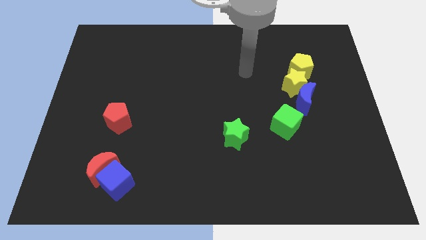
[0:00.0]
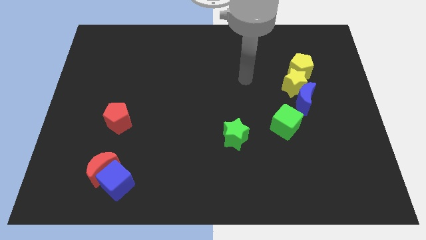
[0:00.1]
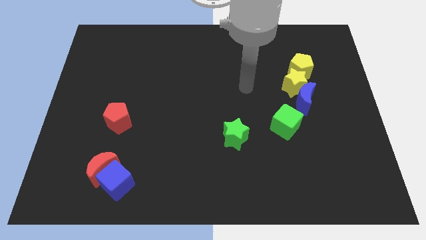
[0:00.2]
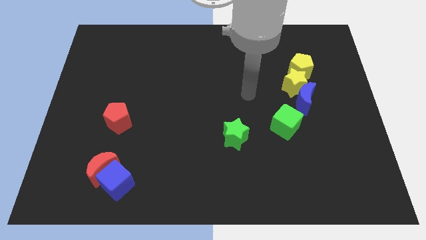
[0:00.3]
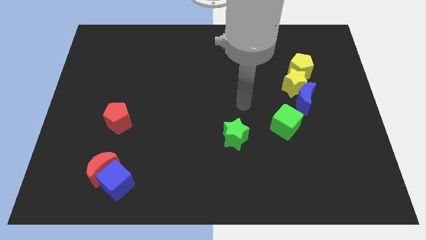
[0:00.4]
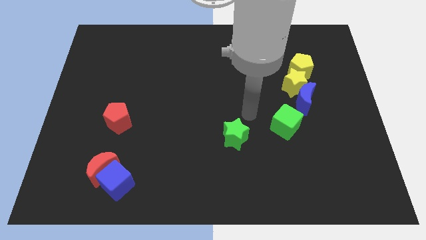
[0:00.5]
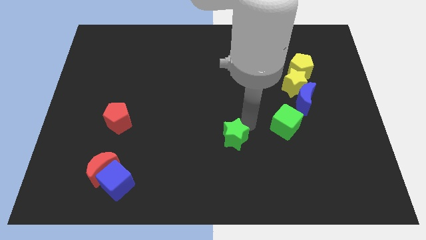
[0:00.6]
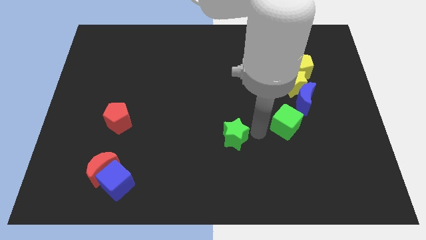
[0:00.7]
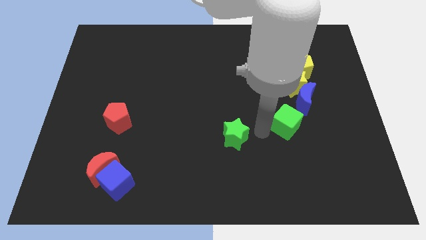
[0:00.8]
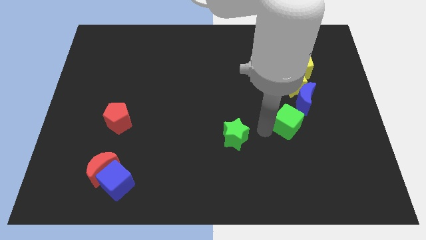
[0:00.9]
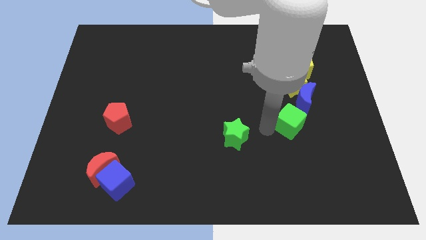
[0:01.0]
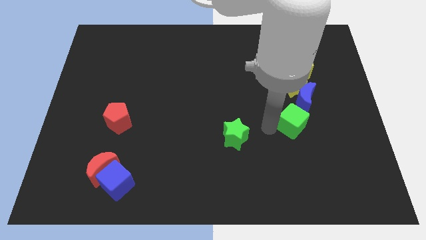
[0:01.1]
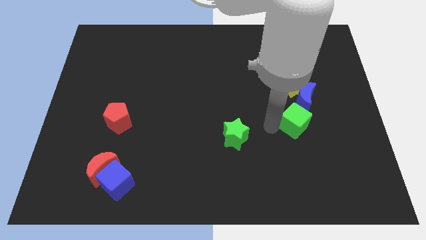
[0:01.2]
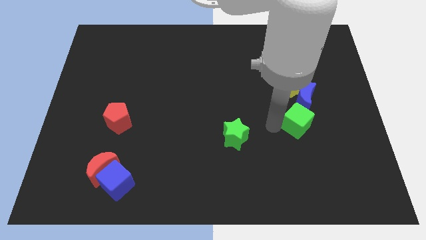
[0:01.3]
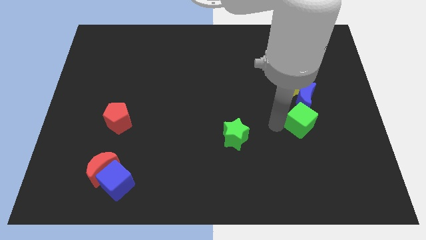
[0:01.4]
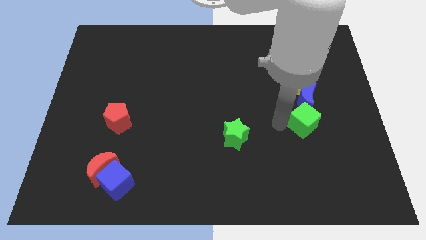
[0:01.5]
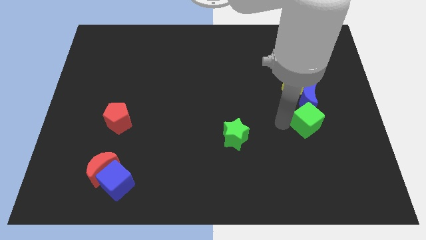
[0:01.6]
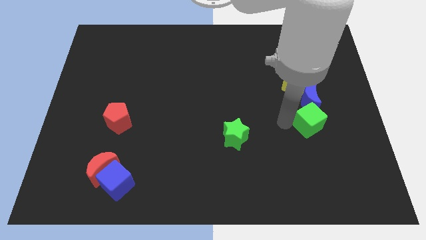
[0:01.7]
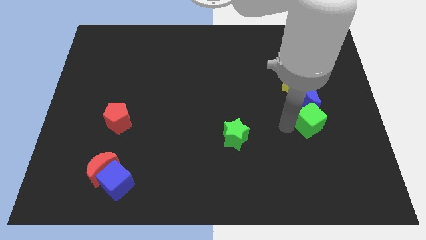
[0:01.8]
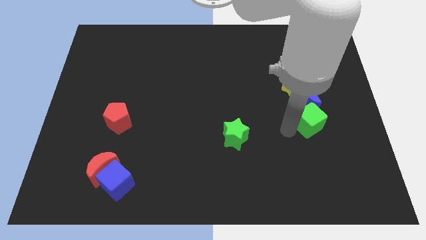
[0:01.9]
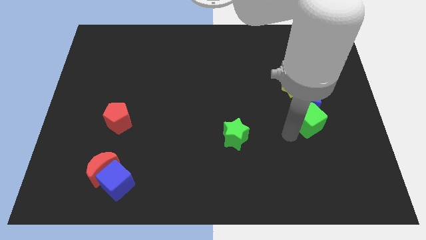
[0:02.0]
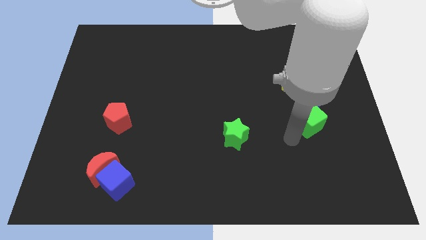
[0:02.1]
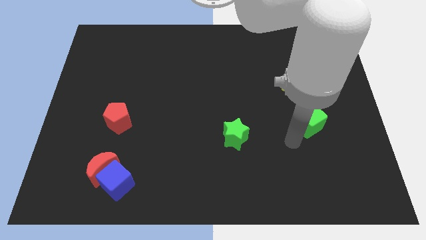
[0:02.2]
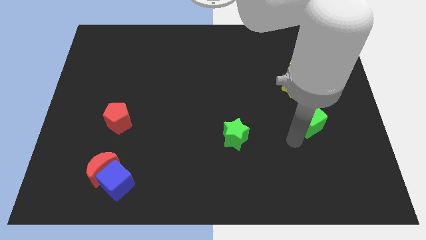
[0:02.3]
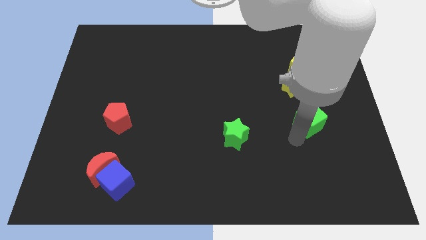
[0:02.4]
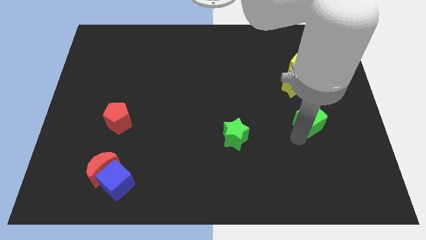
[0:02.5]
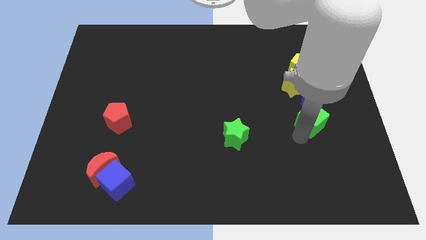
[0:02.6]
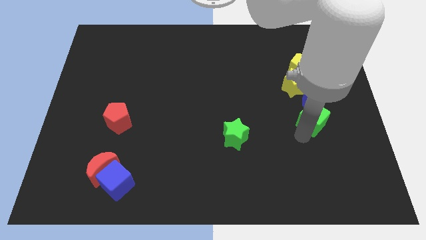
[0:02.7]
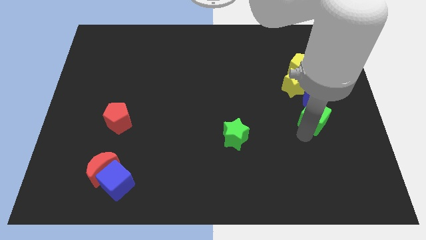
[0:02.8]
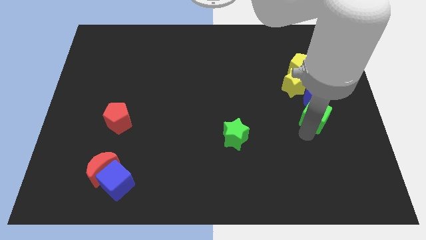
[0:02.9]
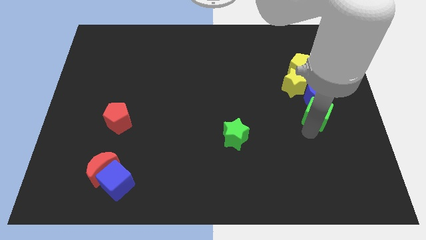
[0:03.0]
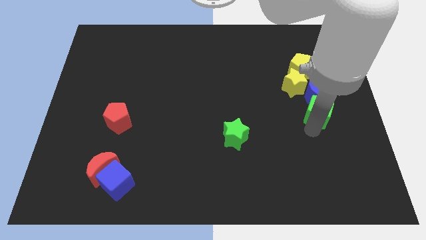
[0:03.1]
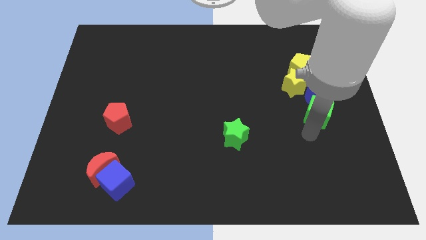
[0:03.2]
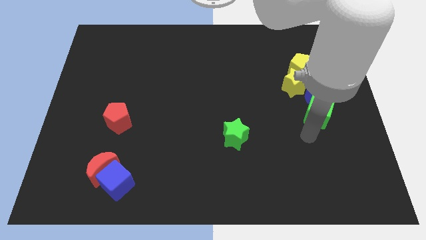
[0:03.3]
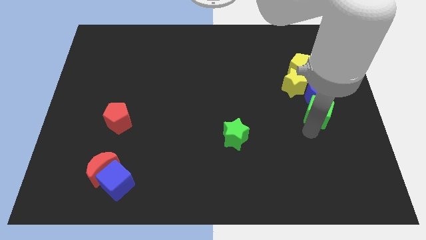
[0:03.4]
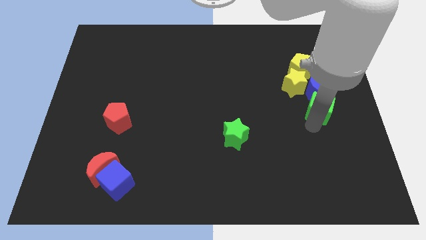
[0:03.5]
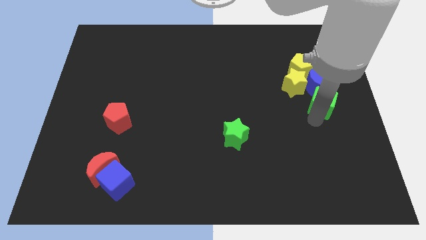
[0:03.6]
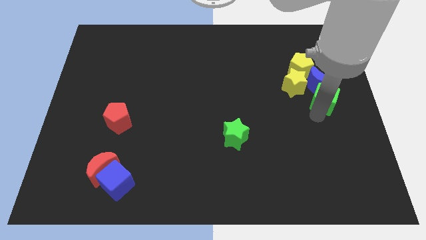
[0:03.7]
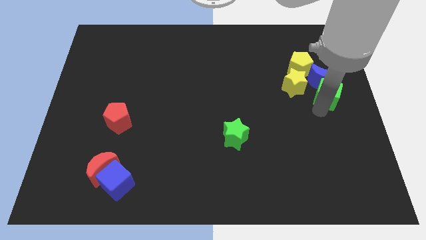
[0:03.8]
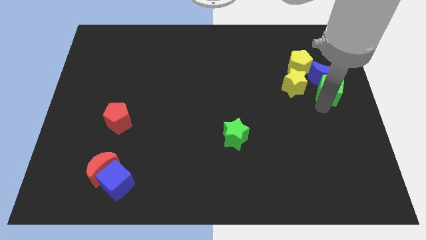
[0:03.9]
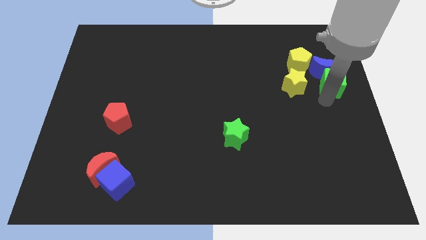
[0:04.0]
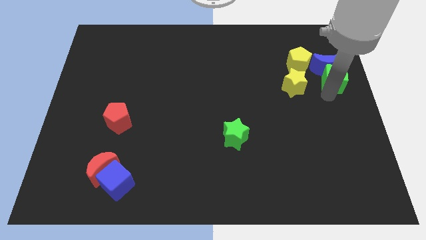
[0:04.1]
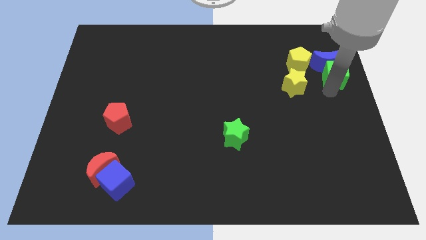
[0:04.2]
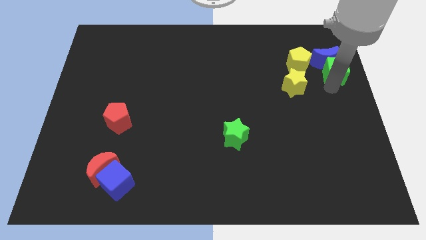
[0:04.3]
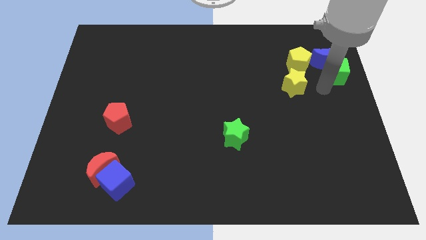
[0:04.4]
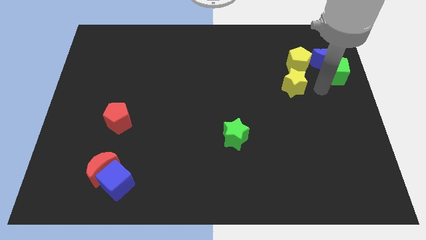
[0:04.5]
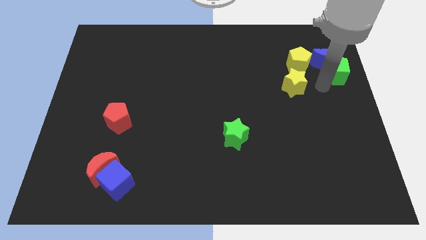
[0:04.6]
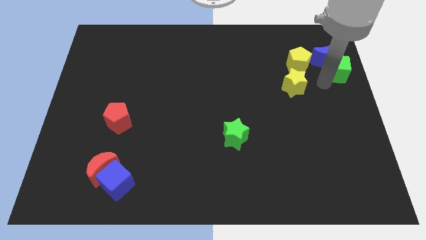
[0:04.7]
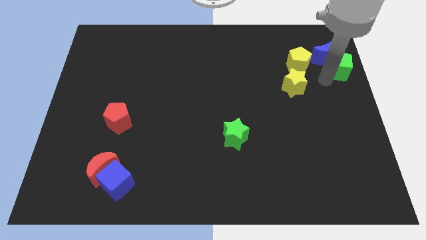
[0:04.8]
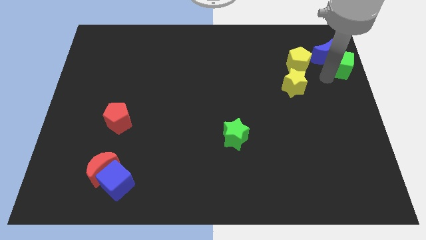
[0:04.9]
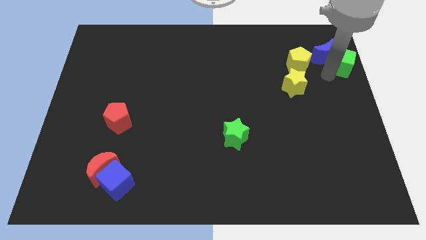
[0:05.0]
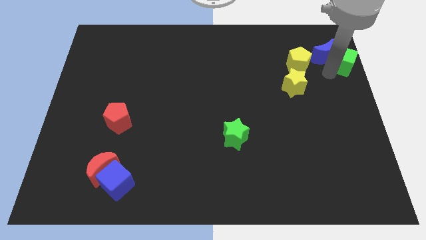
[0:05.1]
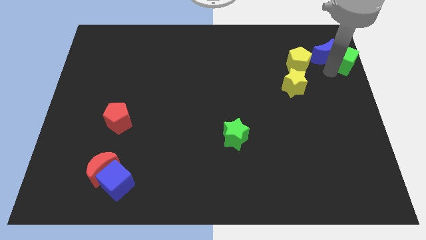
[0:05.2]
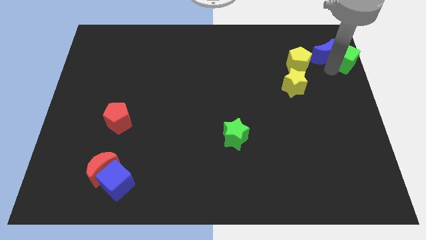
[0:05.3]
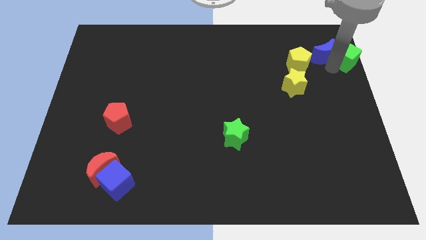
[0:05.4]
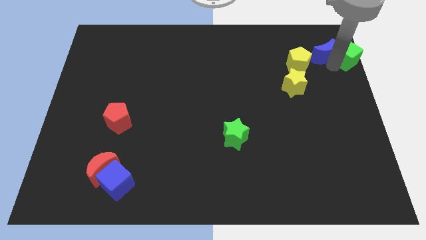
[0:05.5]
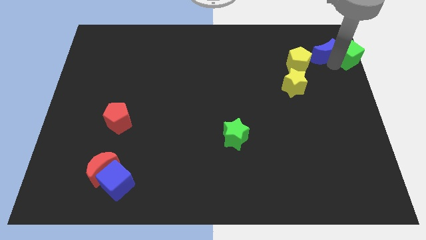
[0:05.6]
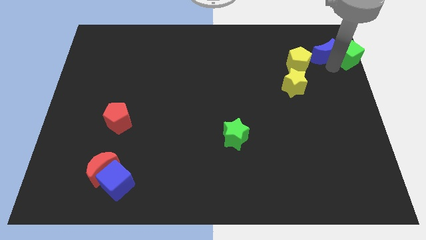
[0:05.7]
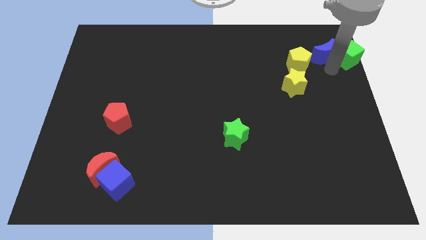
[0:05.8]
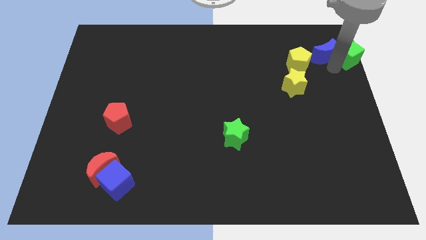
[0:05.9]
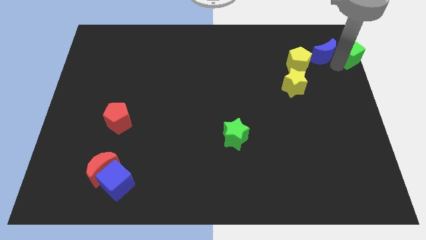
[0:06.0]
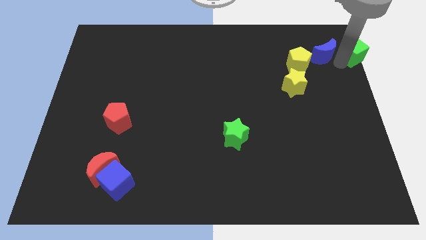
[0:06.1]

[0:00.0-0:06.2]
slide the green cube to the top right of the board

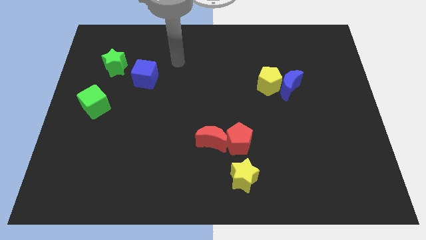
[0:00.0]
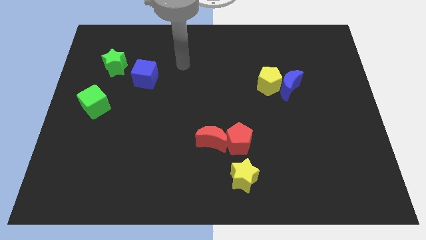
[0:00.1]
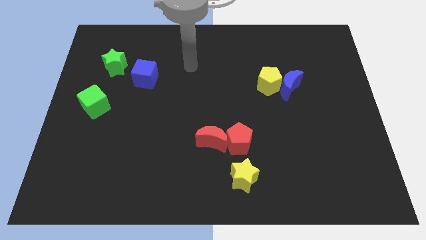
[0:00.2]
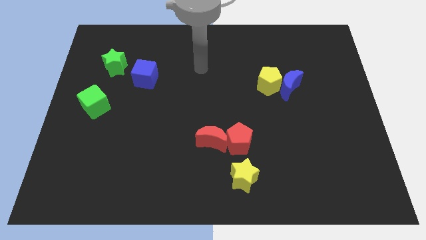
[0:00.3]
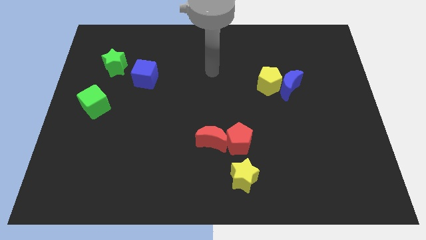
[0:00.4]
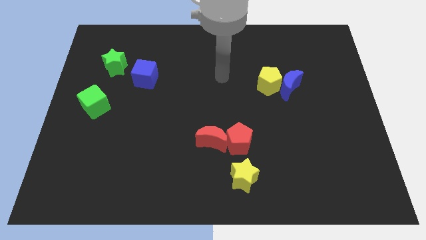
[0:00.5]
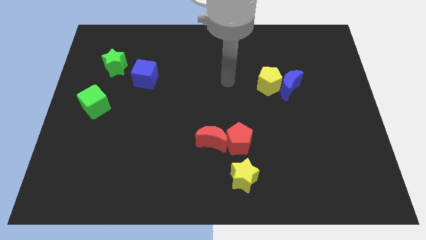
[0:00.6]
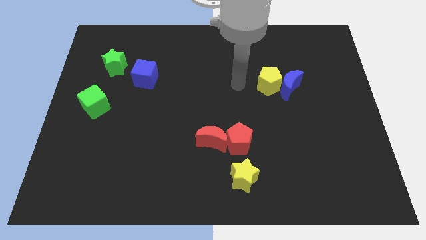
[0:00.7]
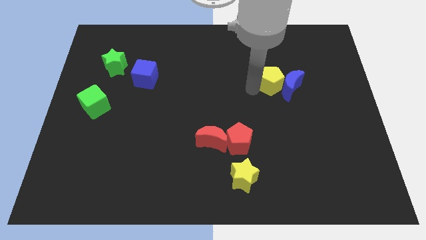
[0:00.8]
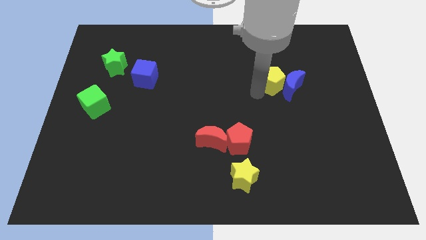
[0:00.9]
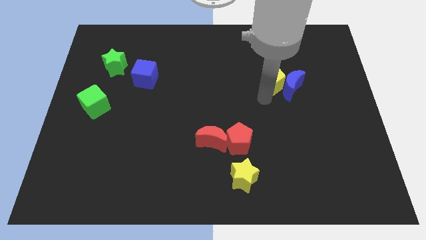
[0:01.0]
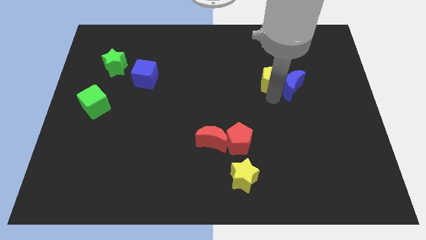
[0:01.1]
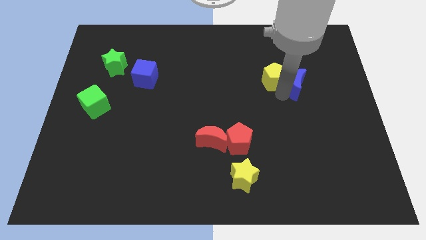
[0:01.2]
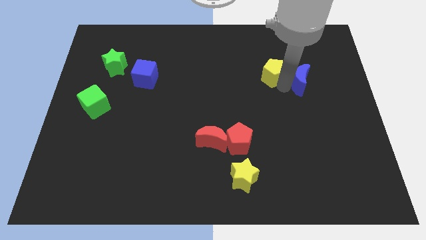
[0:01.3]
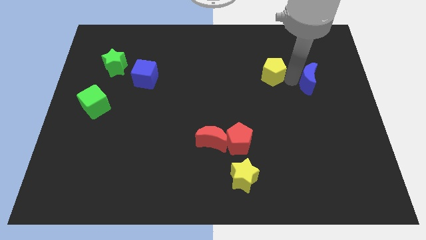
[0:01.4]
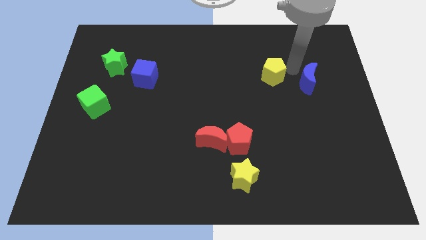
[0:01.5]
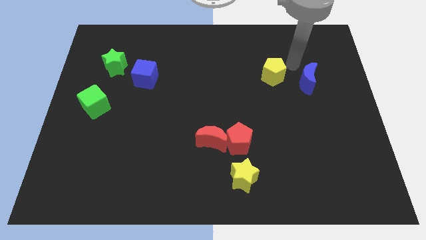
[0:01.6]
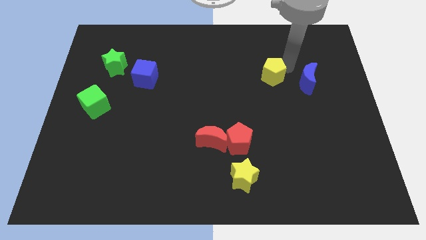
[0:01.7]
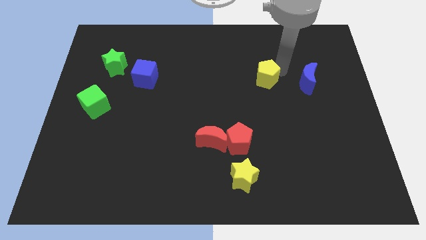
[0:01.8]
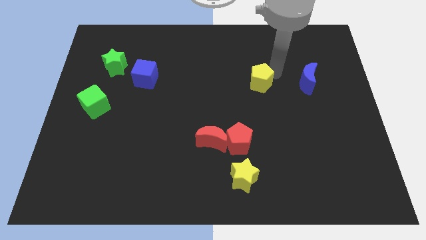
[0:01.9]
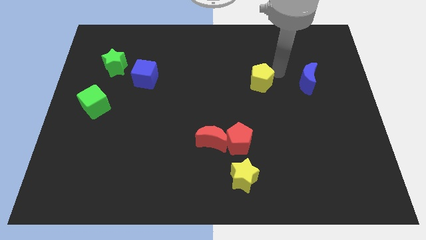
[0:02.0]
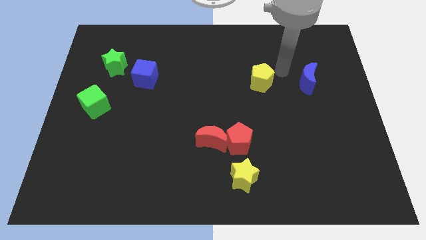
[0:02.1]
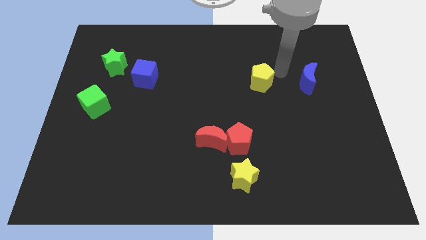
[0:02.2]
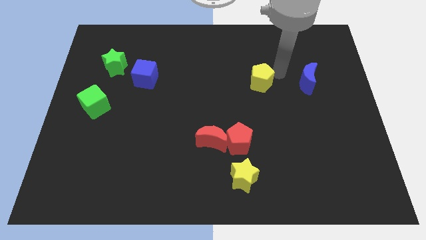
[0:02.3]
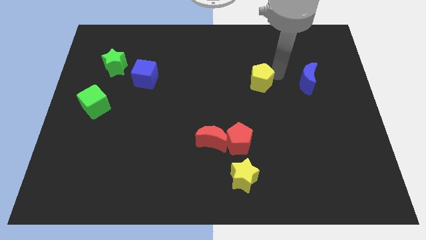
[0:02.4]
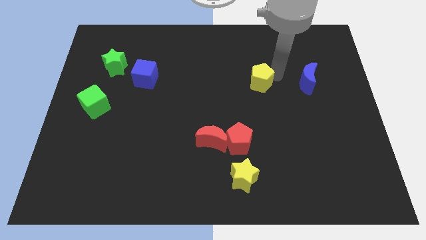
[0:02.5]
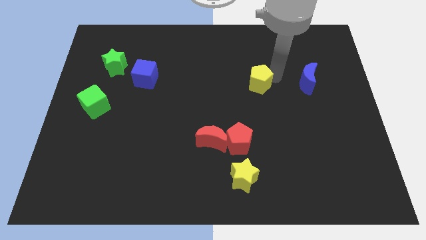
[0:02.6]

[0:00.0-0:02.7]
put the yellow pentagon to the center
